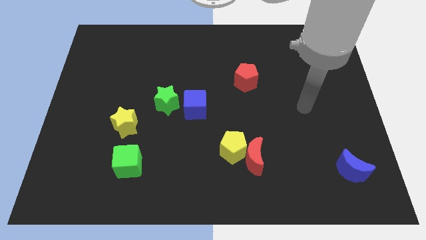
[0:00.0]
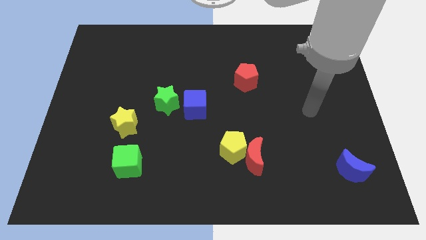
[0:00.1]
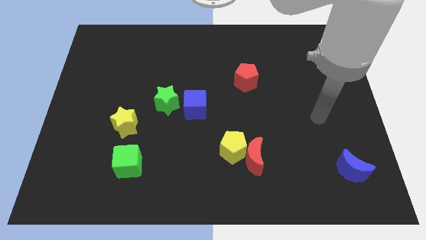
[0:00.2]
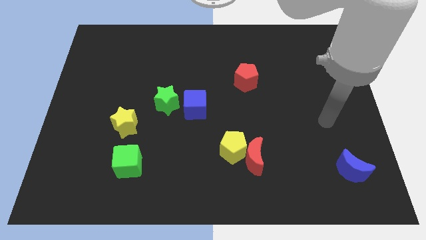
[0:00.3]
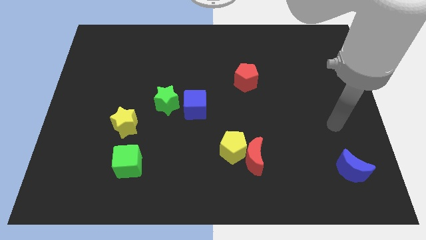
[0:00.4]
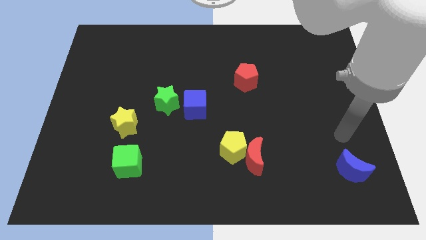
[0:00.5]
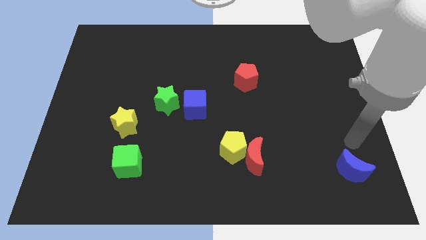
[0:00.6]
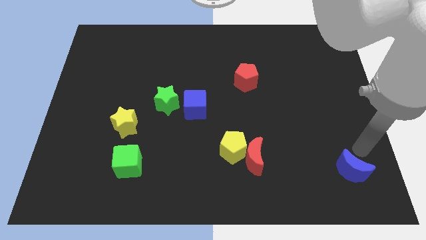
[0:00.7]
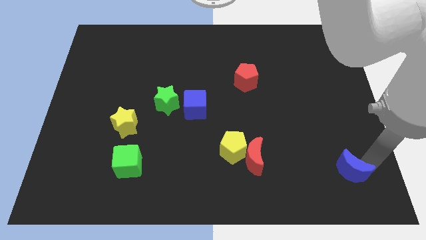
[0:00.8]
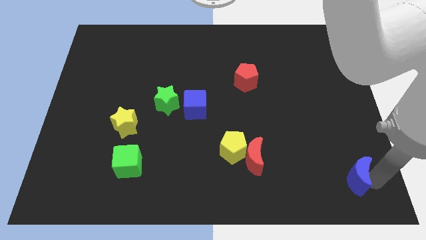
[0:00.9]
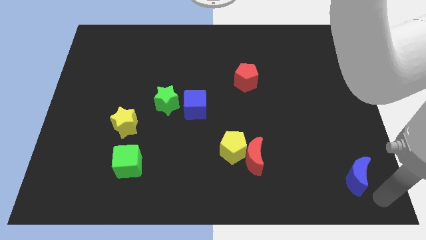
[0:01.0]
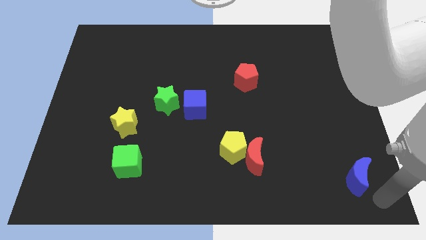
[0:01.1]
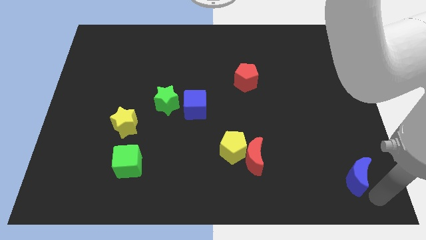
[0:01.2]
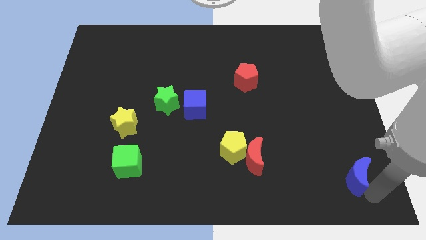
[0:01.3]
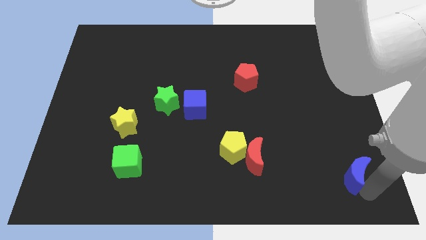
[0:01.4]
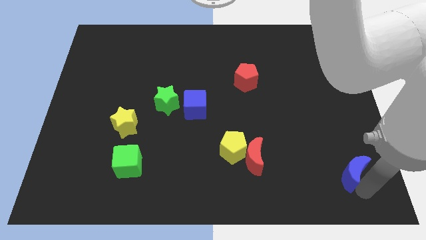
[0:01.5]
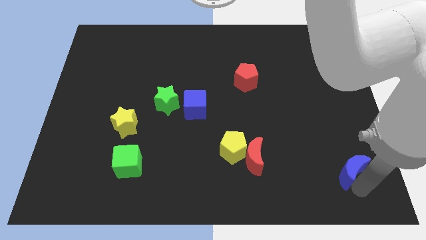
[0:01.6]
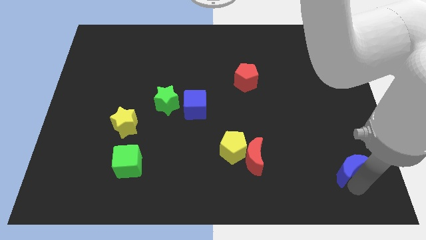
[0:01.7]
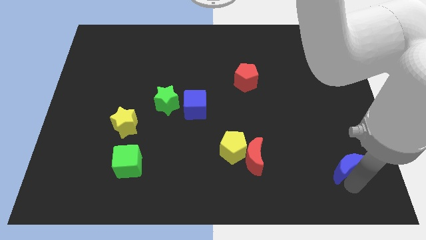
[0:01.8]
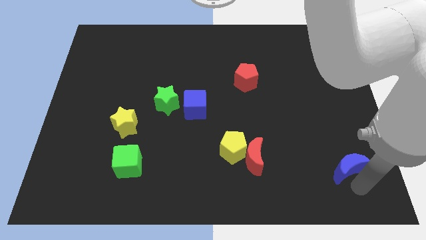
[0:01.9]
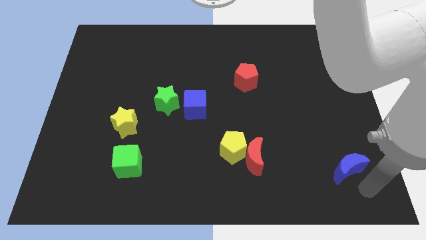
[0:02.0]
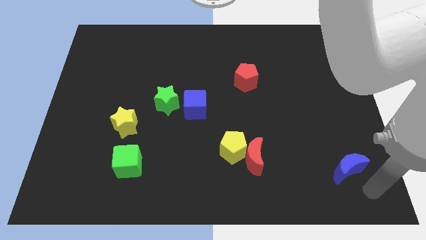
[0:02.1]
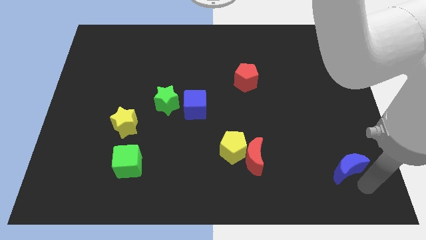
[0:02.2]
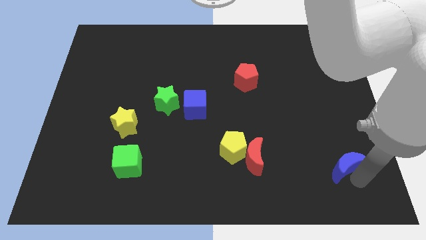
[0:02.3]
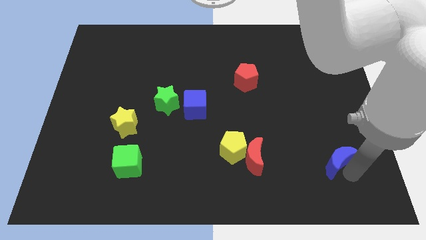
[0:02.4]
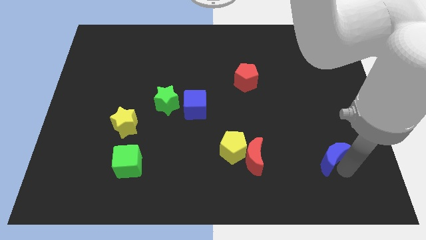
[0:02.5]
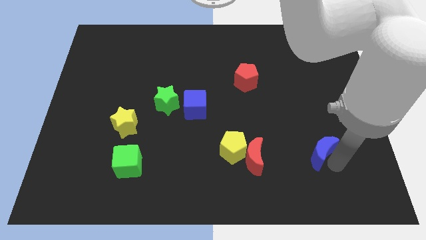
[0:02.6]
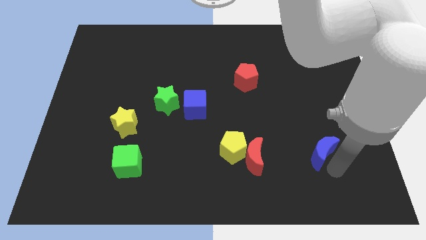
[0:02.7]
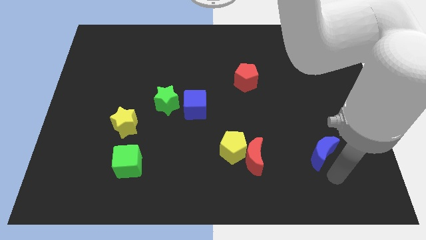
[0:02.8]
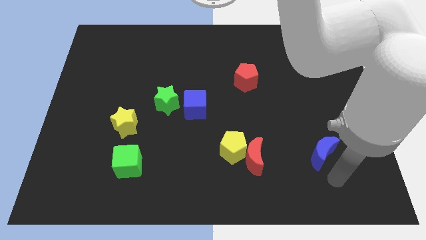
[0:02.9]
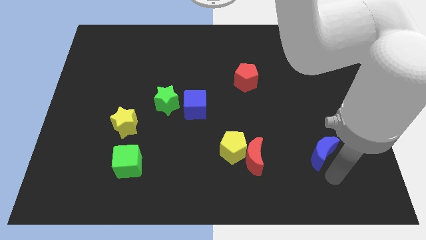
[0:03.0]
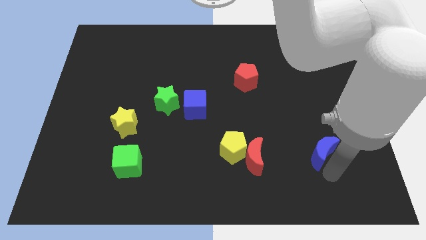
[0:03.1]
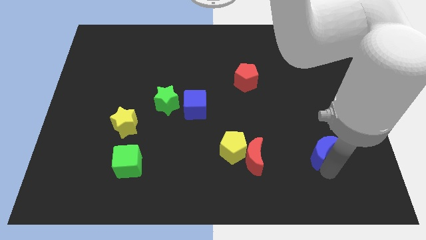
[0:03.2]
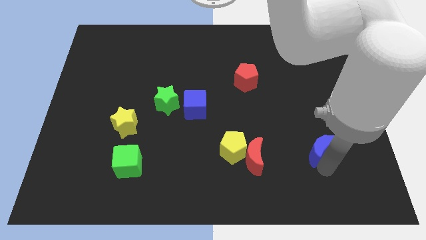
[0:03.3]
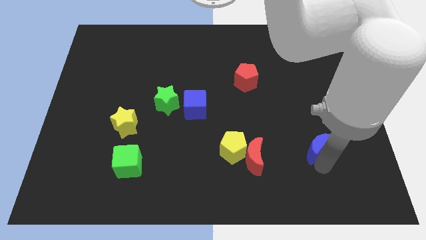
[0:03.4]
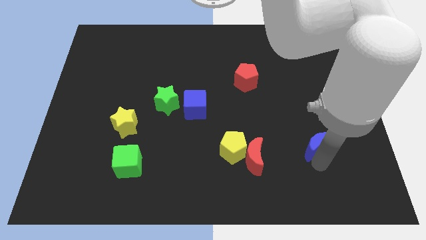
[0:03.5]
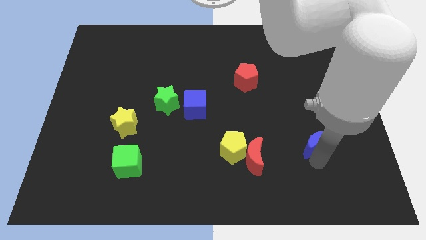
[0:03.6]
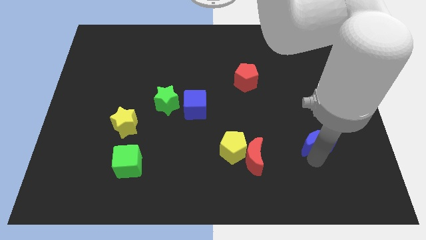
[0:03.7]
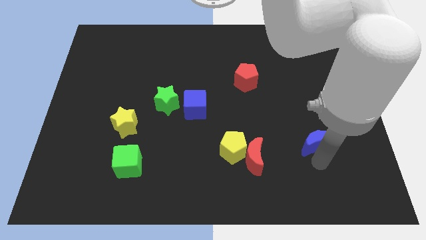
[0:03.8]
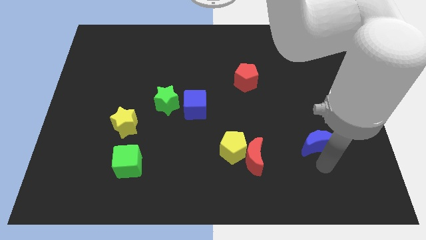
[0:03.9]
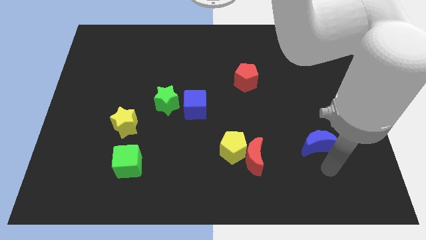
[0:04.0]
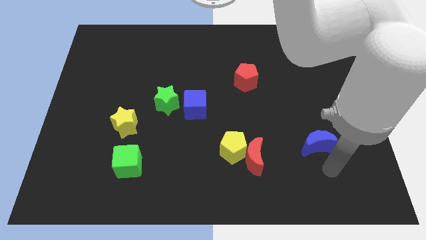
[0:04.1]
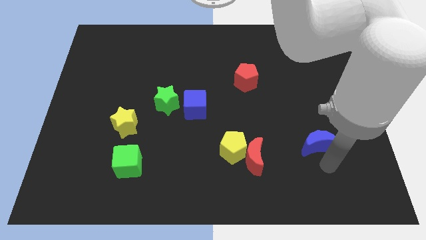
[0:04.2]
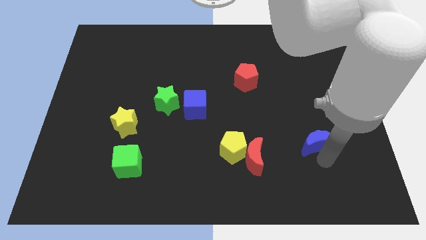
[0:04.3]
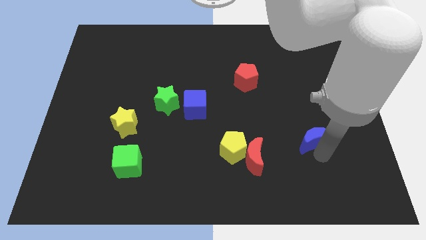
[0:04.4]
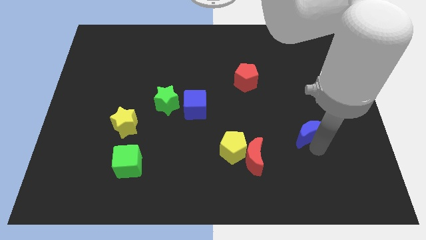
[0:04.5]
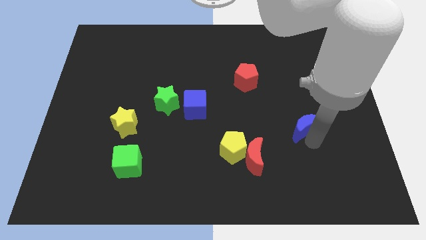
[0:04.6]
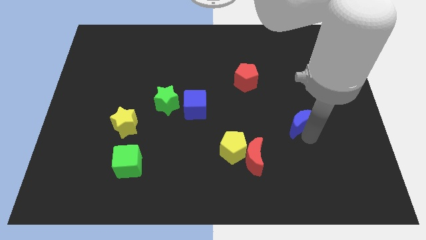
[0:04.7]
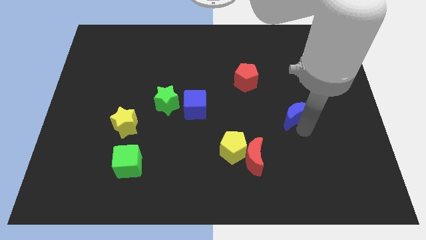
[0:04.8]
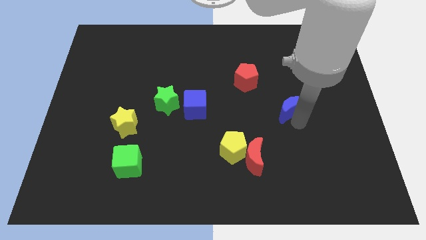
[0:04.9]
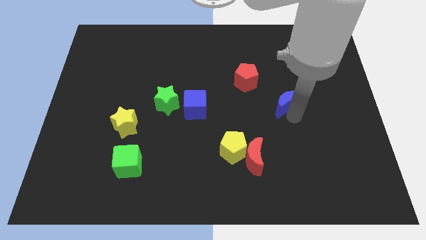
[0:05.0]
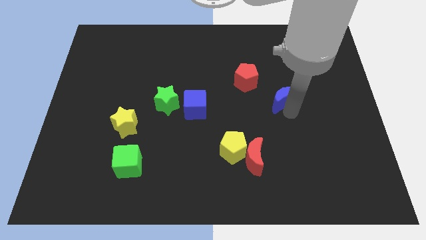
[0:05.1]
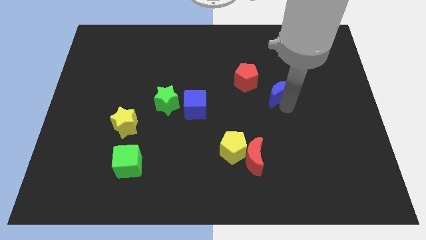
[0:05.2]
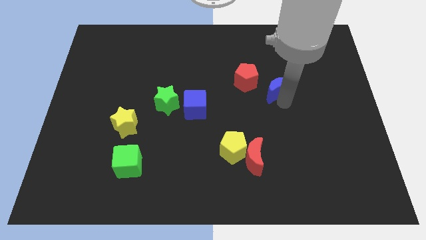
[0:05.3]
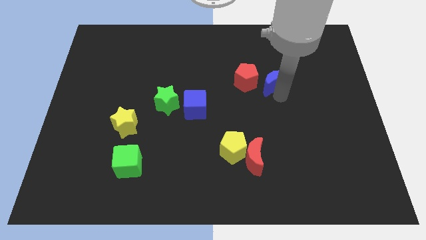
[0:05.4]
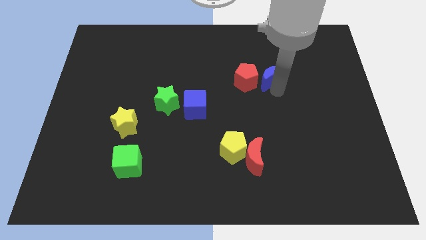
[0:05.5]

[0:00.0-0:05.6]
push the blue moon diagonally up and to the right of the red pentagon

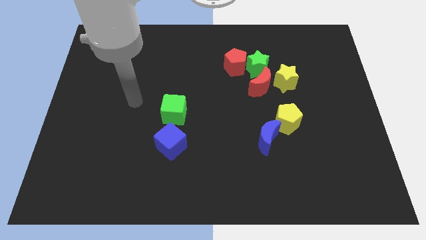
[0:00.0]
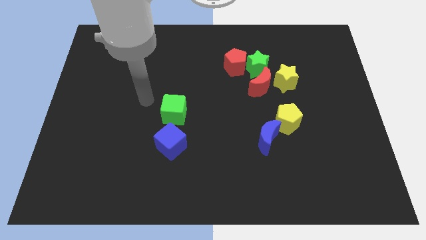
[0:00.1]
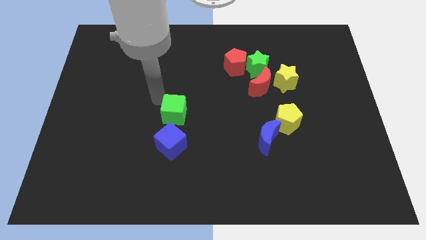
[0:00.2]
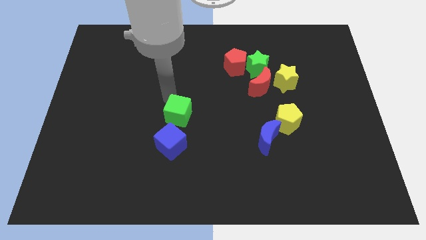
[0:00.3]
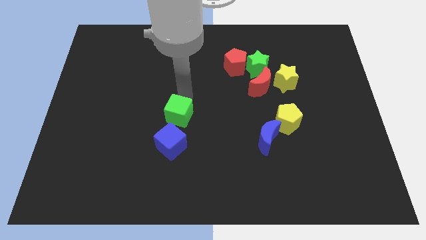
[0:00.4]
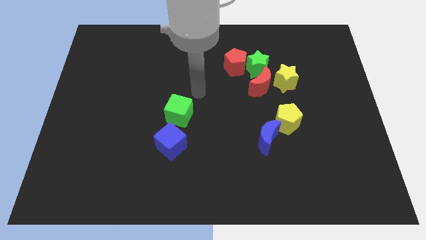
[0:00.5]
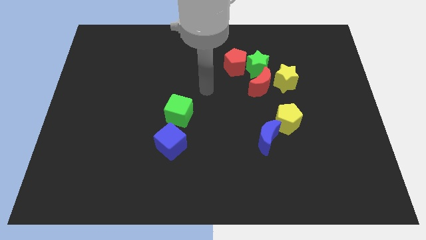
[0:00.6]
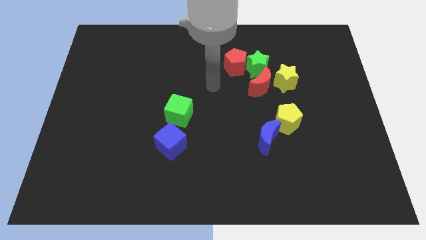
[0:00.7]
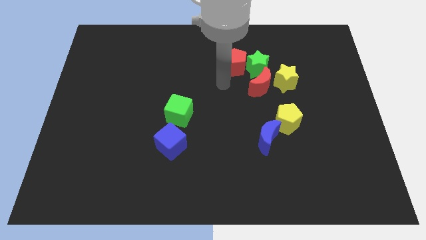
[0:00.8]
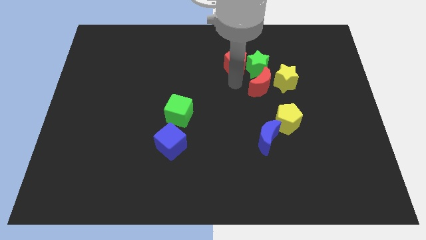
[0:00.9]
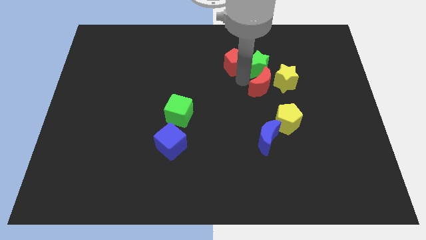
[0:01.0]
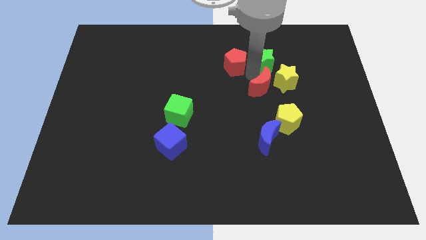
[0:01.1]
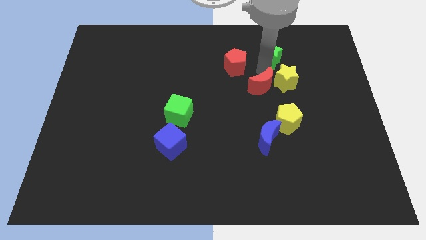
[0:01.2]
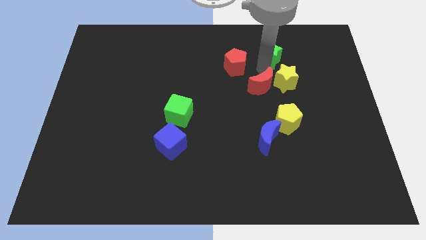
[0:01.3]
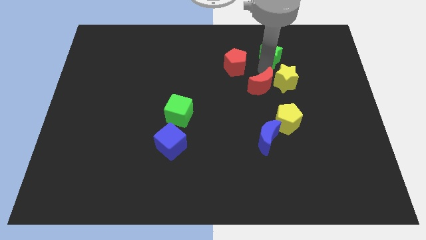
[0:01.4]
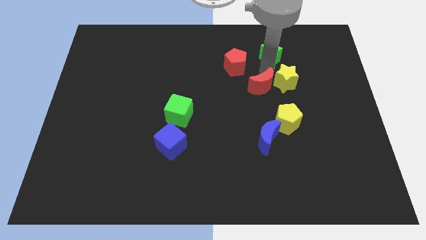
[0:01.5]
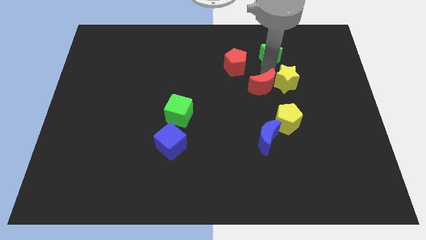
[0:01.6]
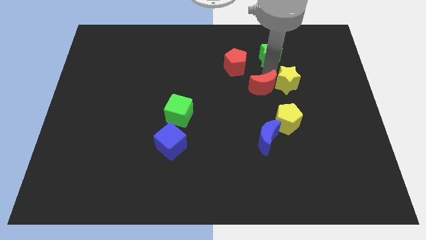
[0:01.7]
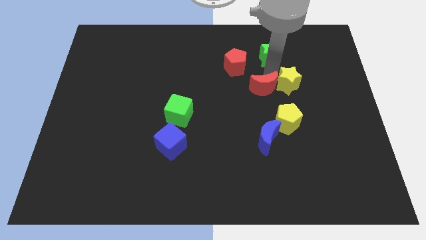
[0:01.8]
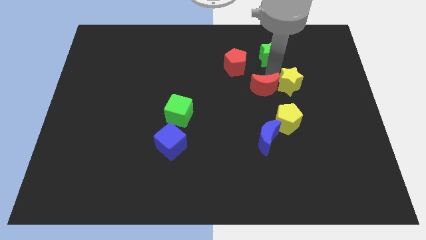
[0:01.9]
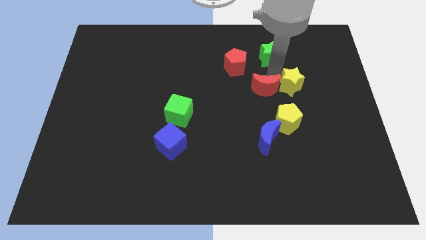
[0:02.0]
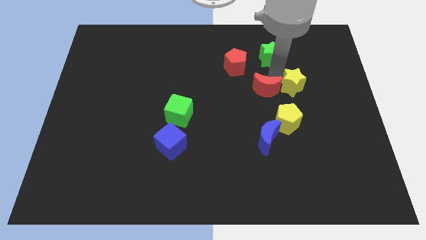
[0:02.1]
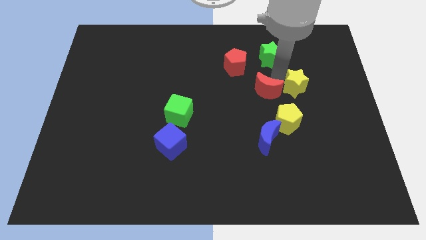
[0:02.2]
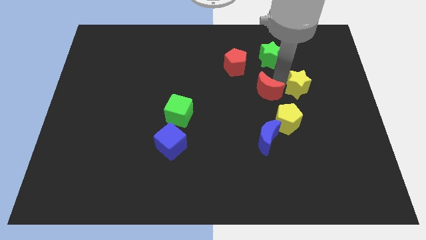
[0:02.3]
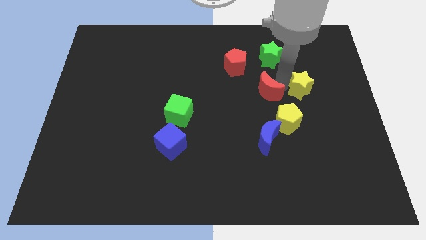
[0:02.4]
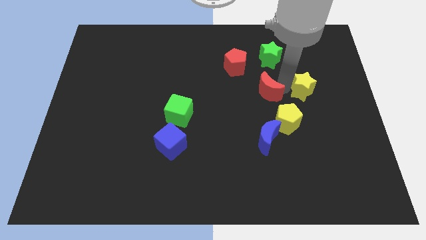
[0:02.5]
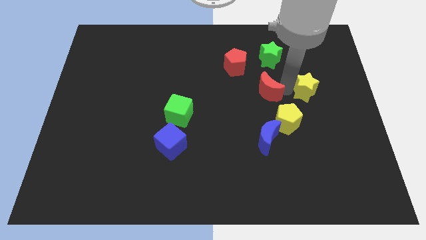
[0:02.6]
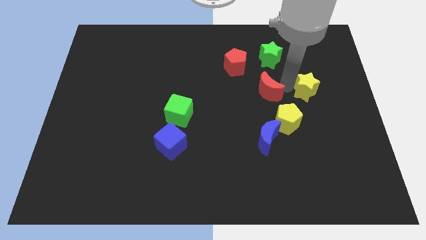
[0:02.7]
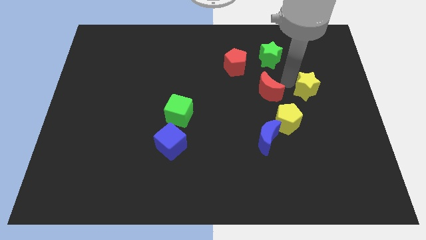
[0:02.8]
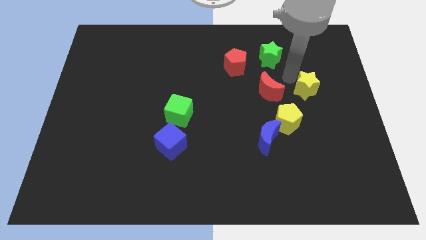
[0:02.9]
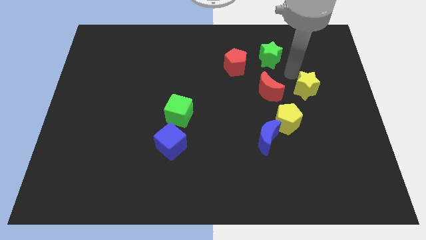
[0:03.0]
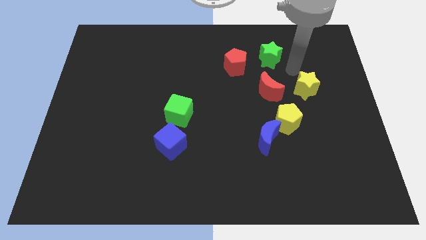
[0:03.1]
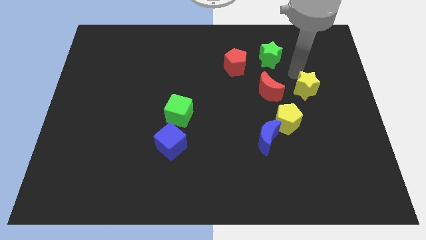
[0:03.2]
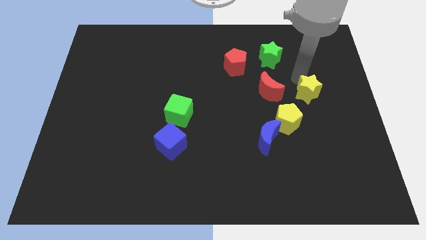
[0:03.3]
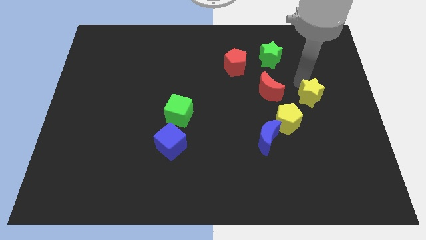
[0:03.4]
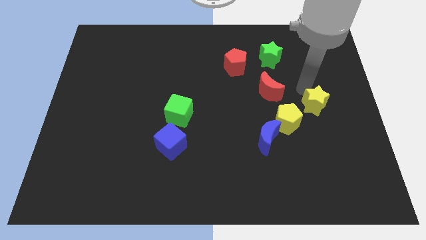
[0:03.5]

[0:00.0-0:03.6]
push the yellow star to the right side of the yellow pentagon
